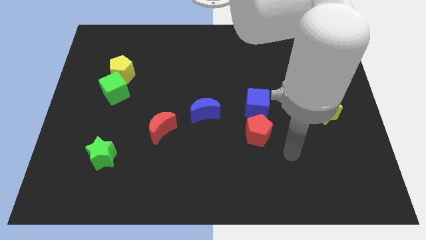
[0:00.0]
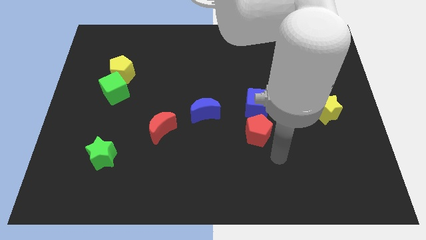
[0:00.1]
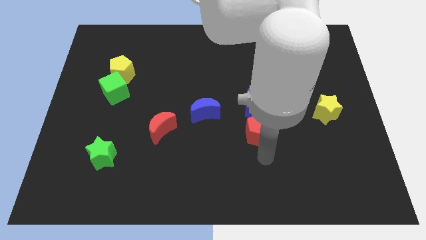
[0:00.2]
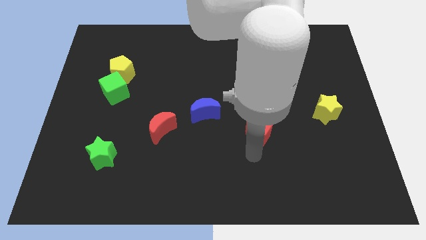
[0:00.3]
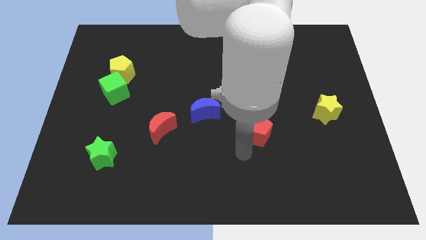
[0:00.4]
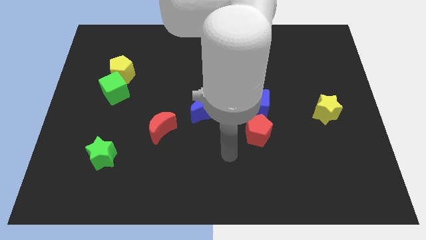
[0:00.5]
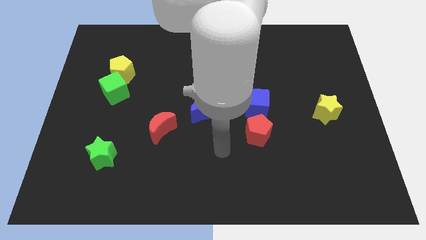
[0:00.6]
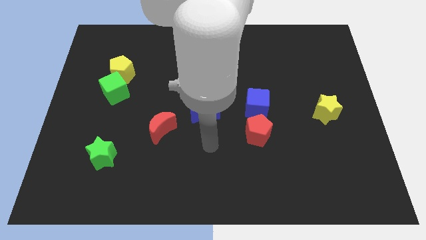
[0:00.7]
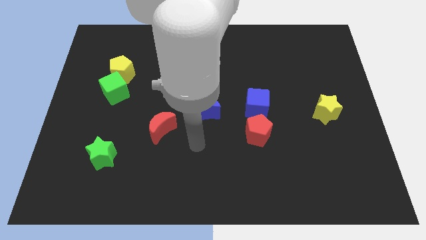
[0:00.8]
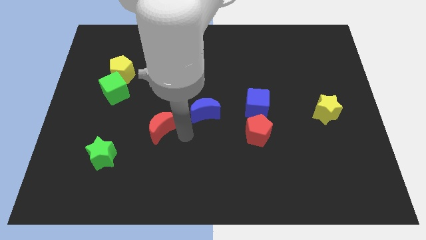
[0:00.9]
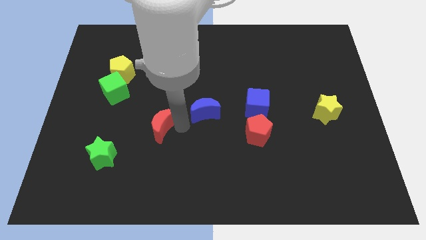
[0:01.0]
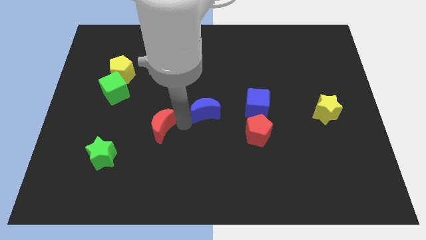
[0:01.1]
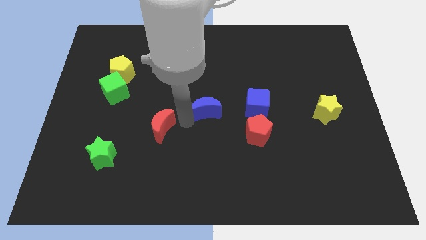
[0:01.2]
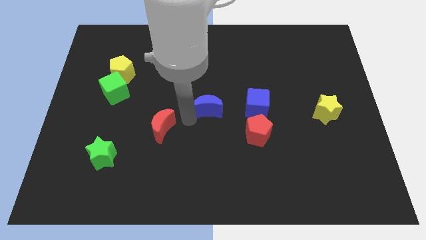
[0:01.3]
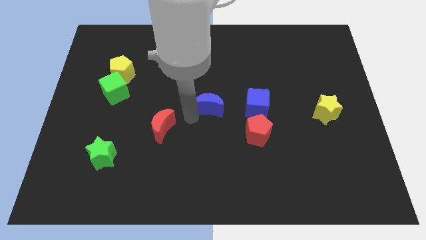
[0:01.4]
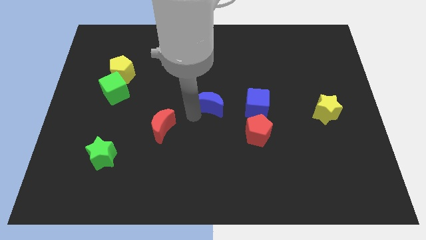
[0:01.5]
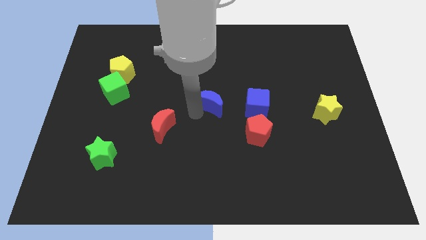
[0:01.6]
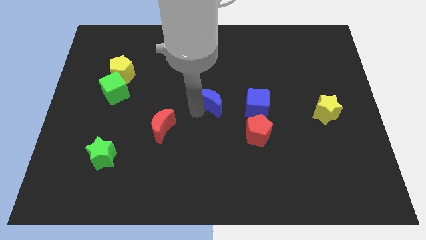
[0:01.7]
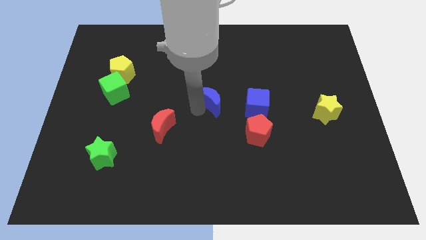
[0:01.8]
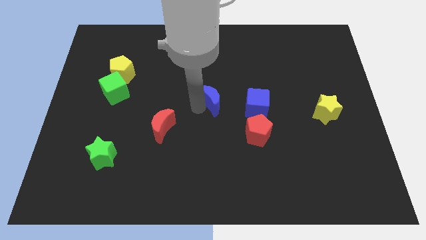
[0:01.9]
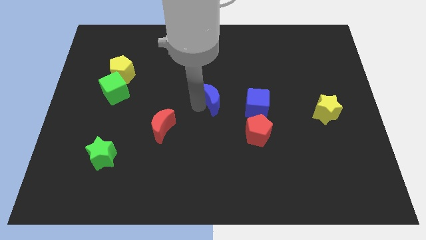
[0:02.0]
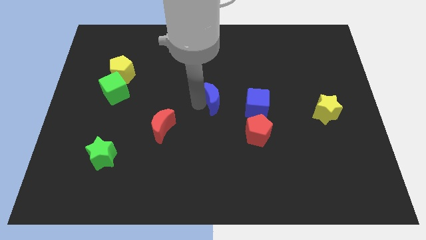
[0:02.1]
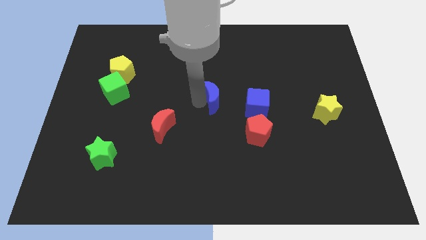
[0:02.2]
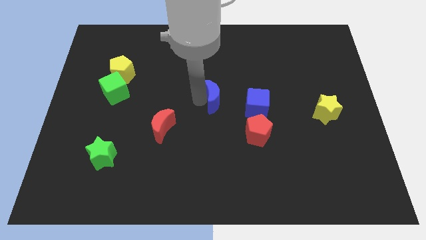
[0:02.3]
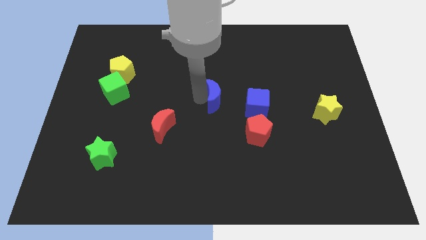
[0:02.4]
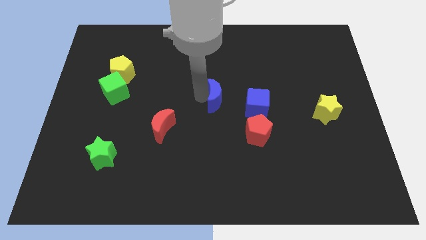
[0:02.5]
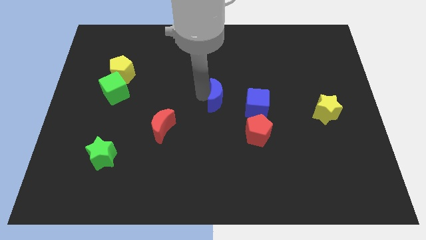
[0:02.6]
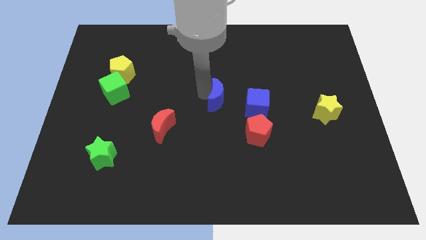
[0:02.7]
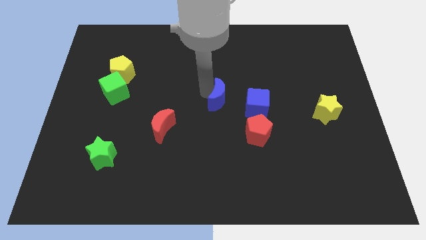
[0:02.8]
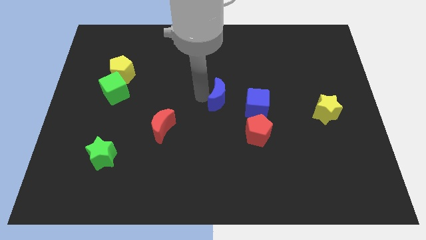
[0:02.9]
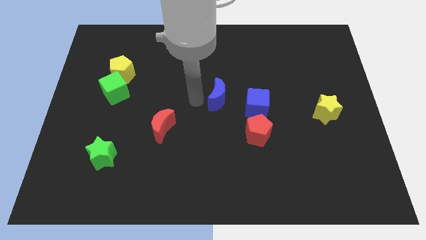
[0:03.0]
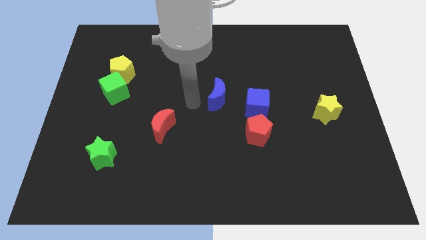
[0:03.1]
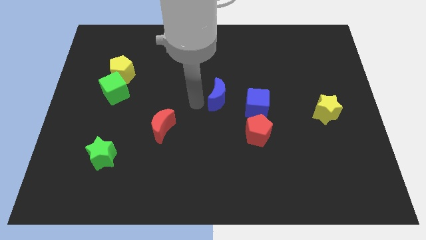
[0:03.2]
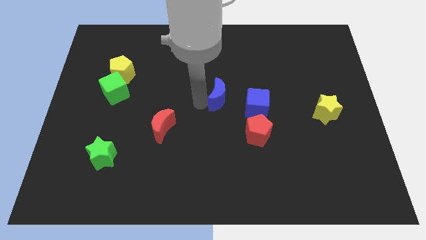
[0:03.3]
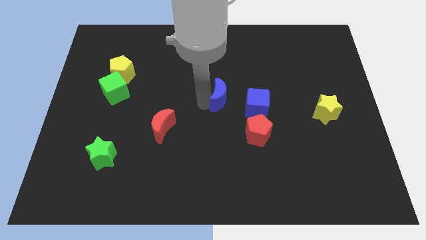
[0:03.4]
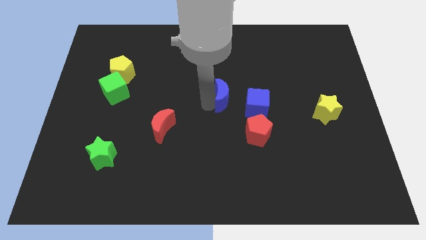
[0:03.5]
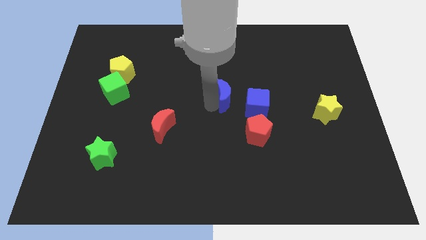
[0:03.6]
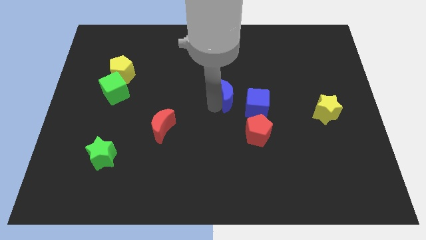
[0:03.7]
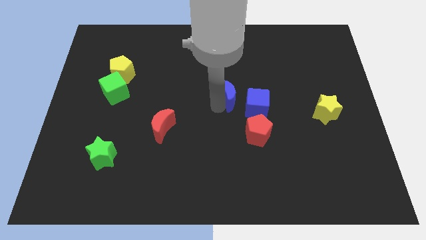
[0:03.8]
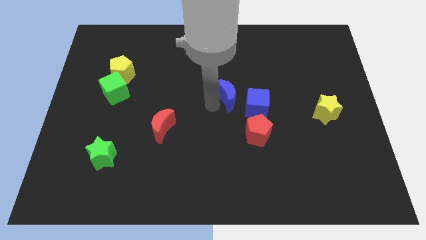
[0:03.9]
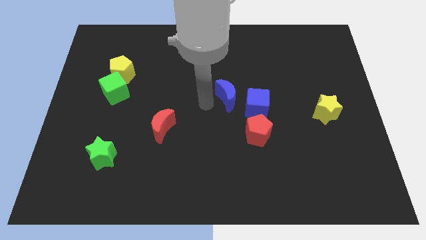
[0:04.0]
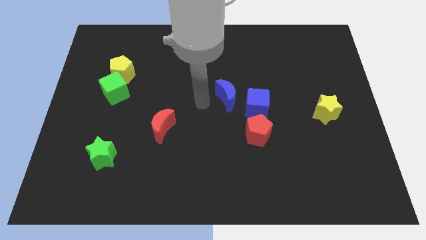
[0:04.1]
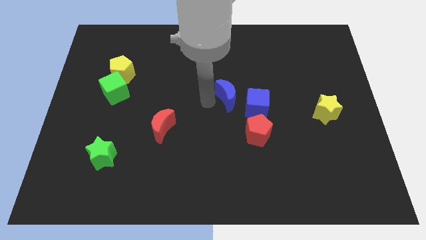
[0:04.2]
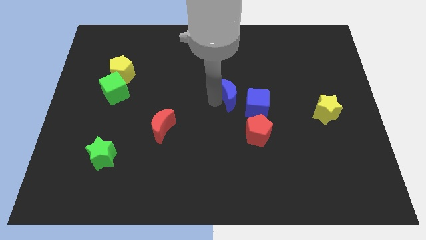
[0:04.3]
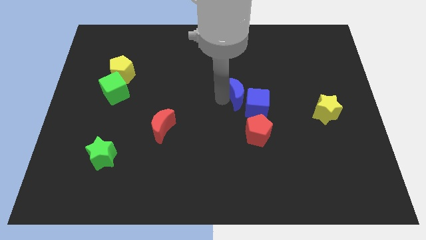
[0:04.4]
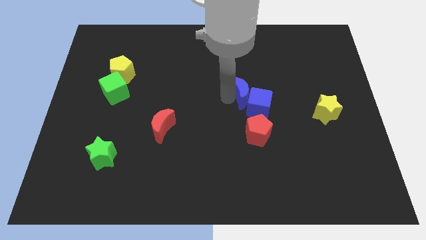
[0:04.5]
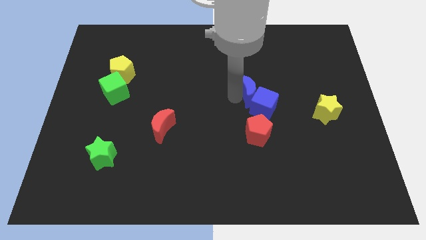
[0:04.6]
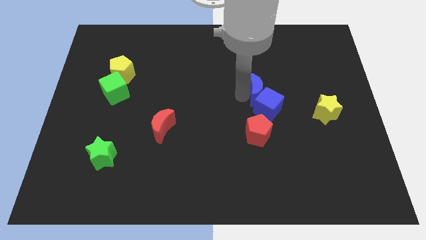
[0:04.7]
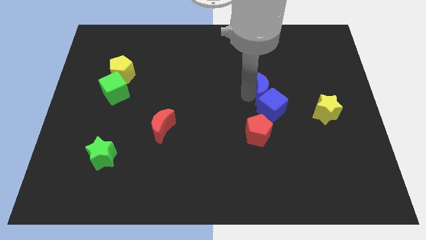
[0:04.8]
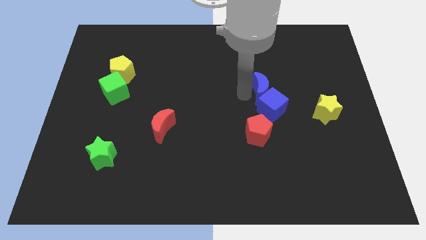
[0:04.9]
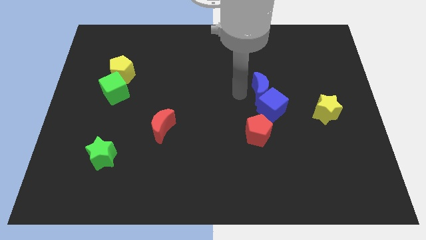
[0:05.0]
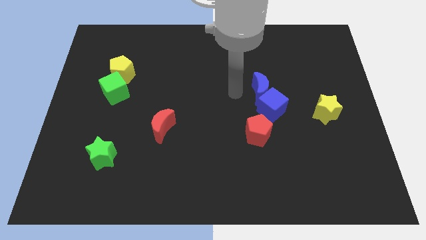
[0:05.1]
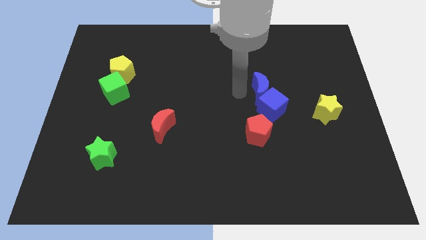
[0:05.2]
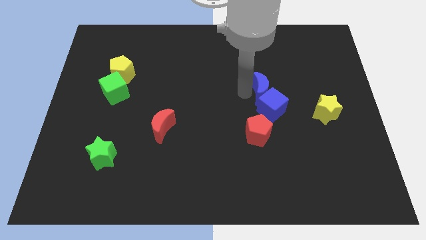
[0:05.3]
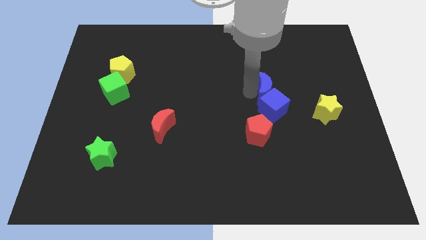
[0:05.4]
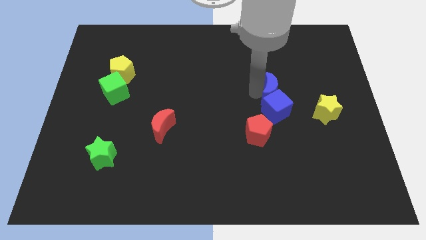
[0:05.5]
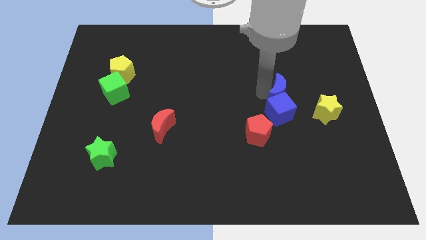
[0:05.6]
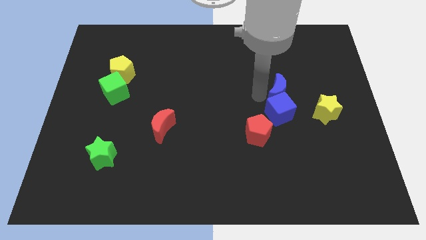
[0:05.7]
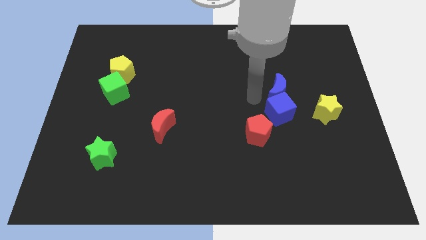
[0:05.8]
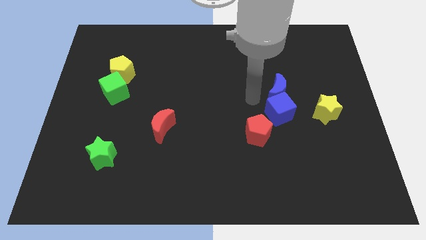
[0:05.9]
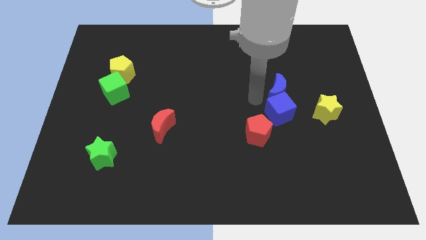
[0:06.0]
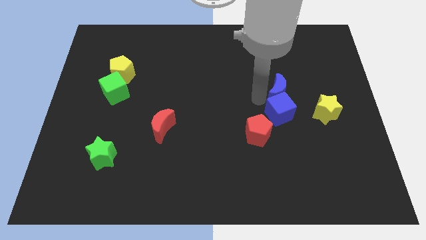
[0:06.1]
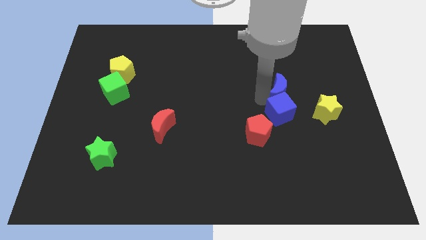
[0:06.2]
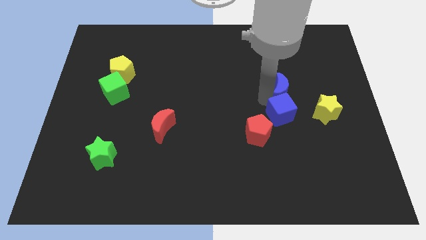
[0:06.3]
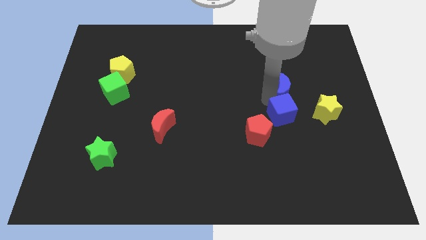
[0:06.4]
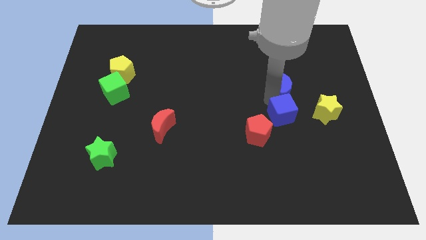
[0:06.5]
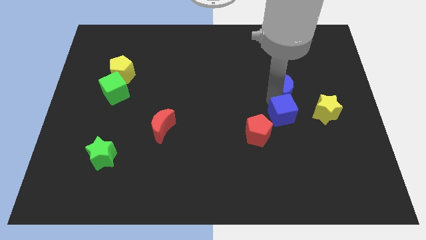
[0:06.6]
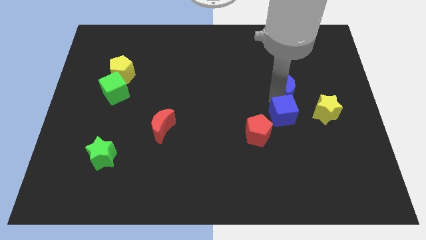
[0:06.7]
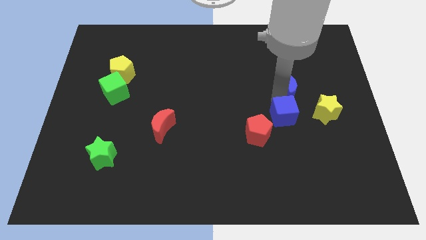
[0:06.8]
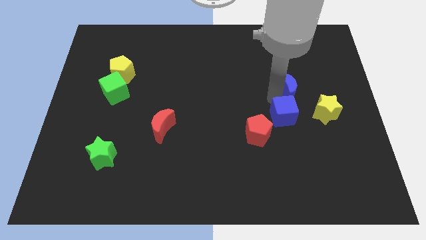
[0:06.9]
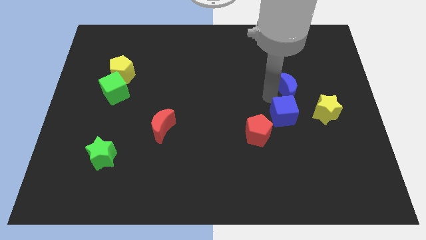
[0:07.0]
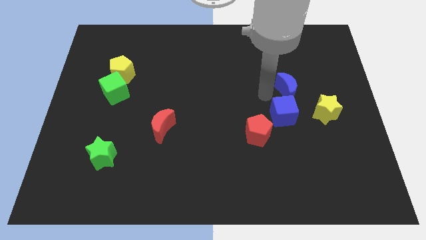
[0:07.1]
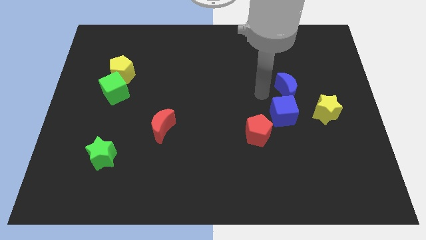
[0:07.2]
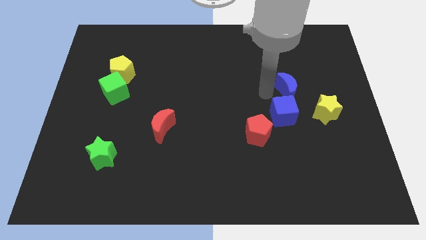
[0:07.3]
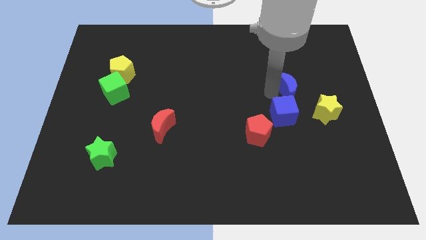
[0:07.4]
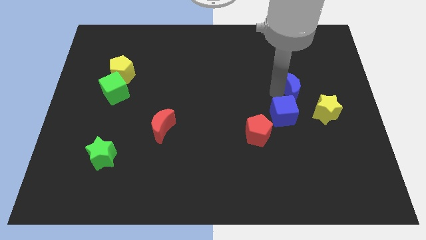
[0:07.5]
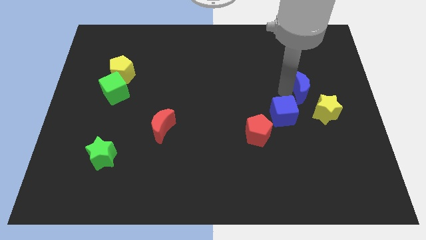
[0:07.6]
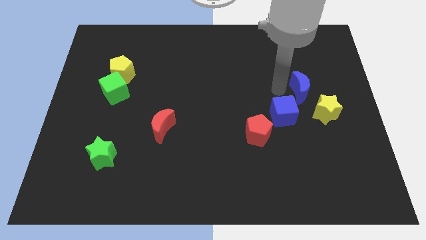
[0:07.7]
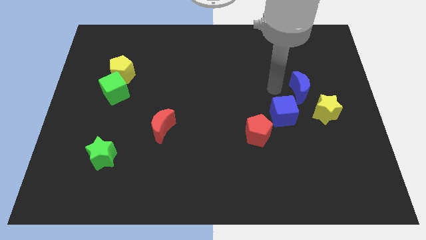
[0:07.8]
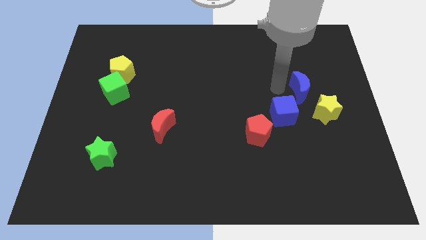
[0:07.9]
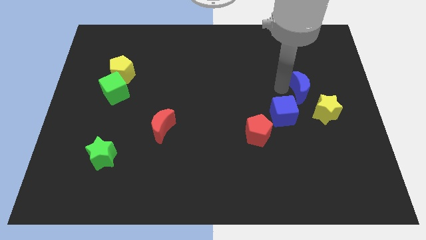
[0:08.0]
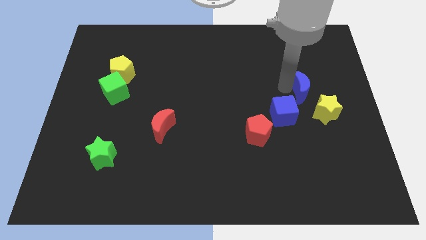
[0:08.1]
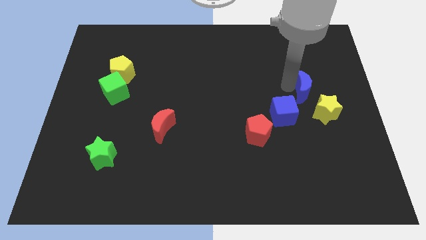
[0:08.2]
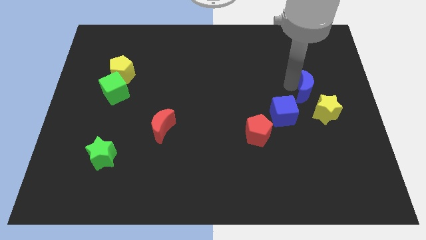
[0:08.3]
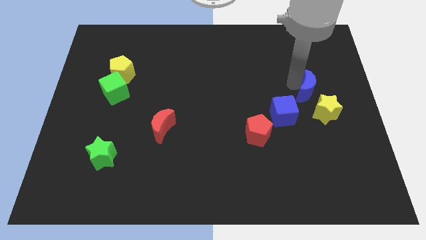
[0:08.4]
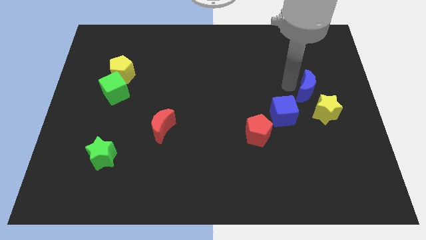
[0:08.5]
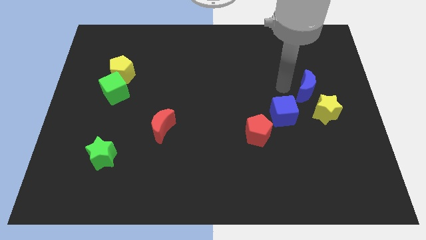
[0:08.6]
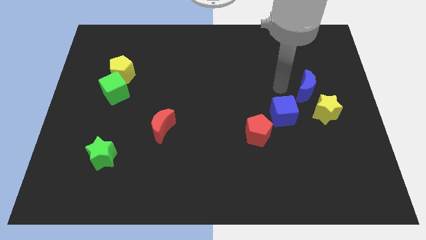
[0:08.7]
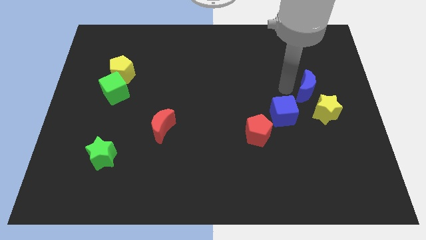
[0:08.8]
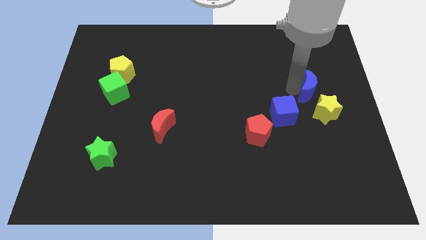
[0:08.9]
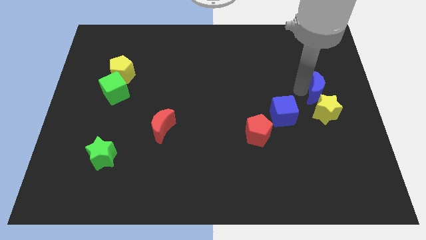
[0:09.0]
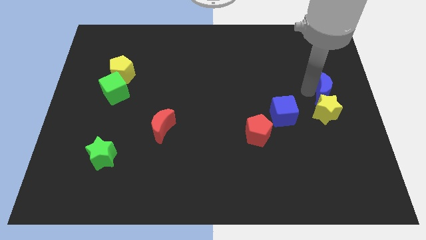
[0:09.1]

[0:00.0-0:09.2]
put the blue moon to the right side
